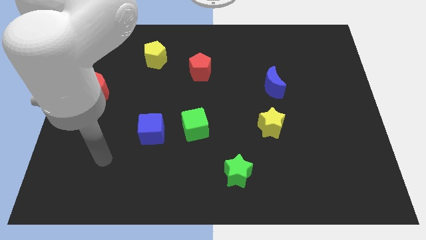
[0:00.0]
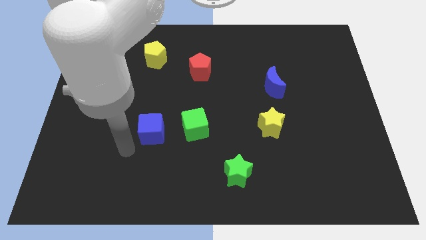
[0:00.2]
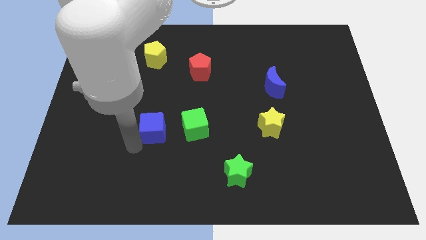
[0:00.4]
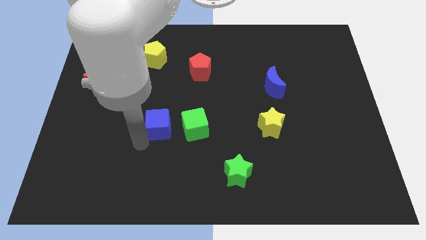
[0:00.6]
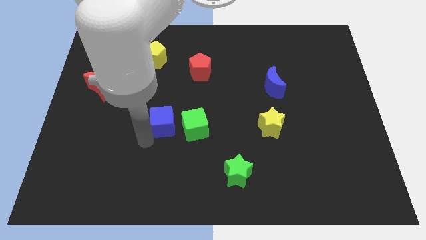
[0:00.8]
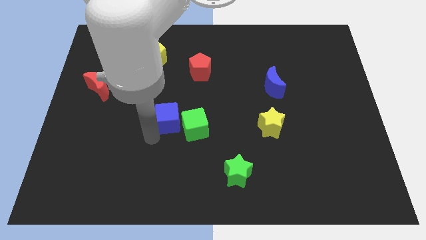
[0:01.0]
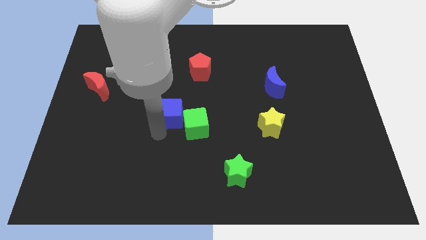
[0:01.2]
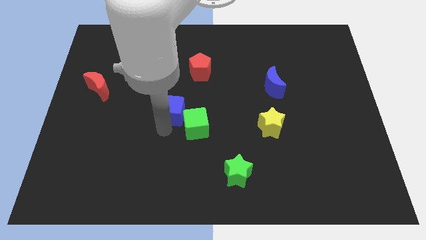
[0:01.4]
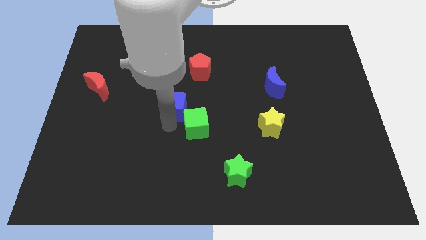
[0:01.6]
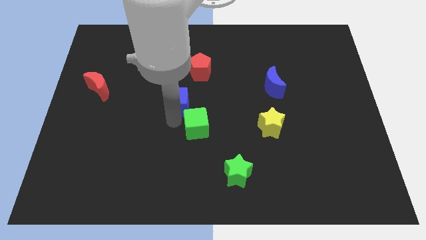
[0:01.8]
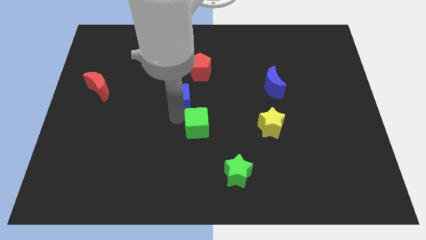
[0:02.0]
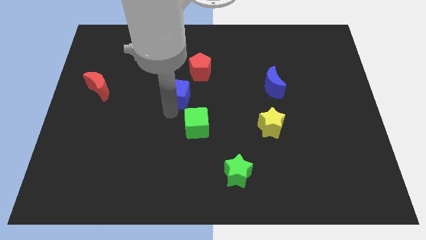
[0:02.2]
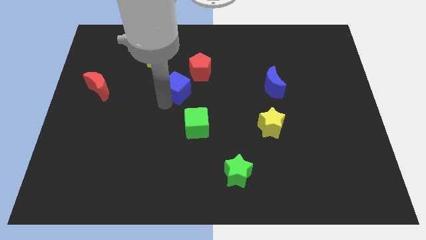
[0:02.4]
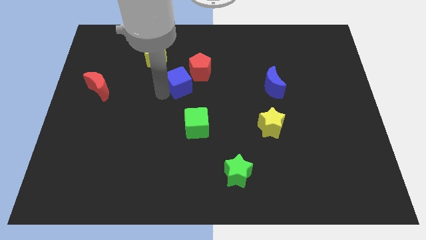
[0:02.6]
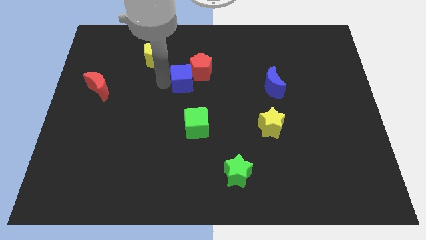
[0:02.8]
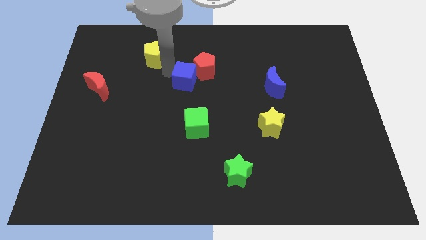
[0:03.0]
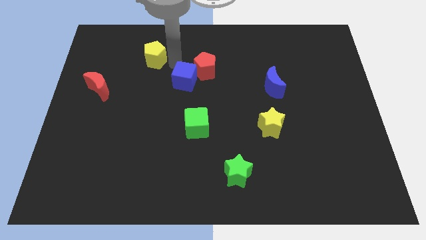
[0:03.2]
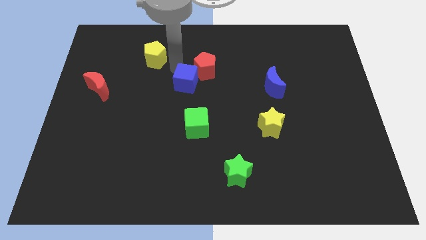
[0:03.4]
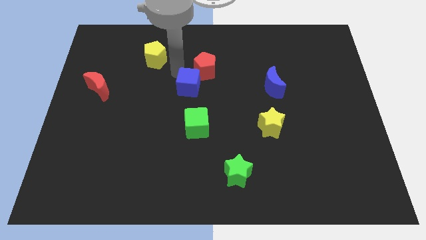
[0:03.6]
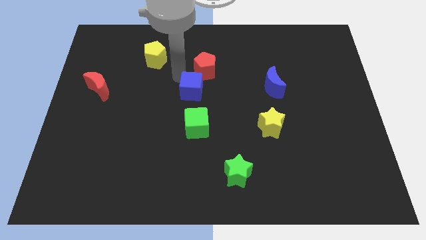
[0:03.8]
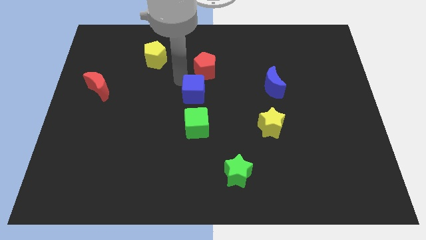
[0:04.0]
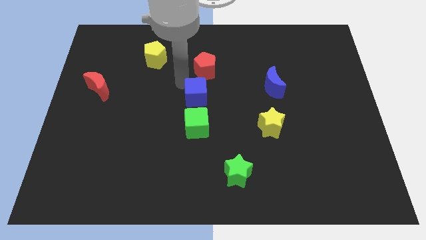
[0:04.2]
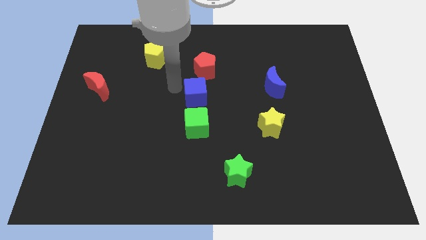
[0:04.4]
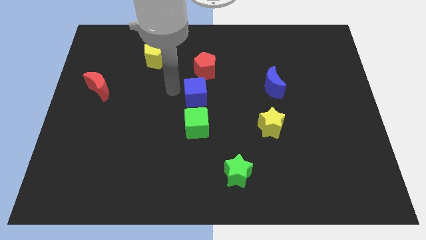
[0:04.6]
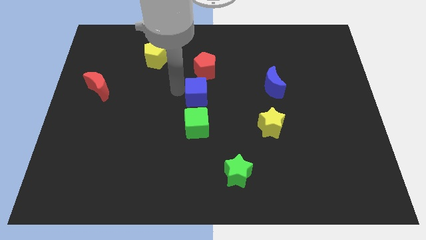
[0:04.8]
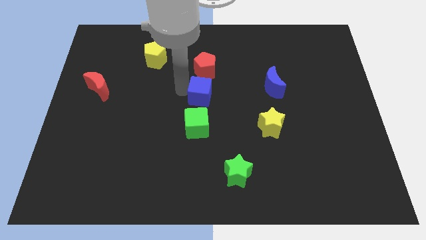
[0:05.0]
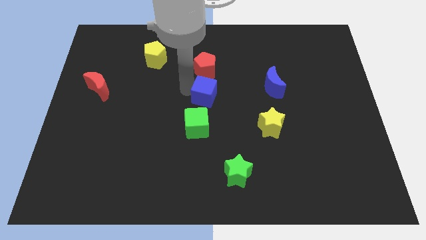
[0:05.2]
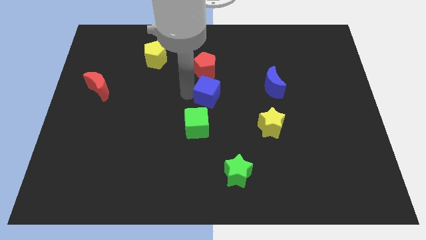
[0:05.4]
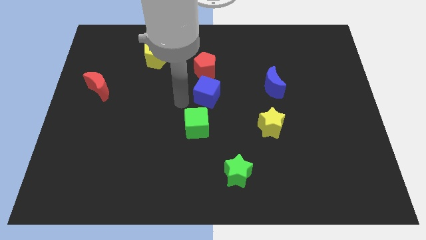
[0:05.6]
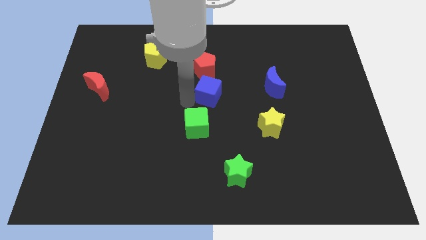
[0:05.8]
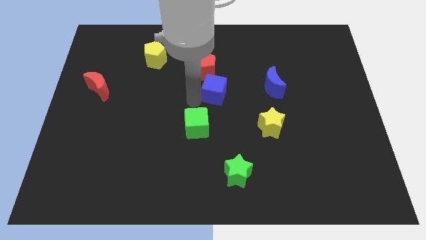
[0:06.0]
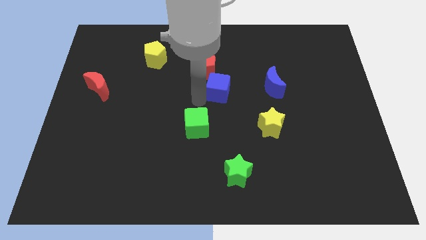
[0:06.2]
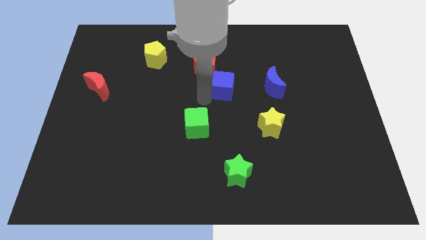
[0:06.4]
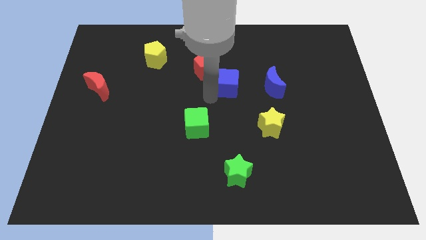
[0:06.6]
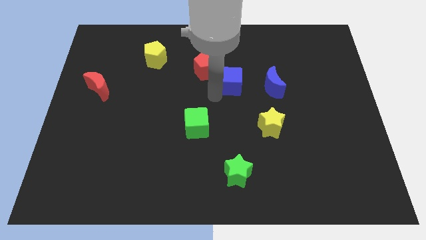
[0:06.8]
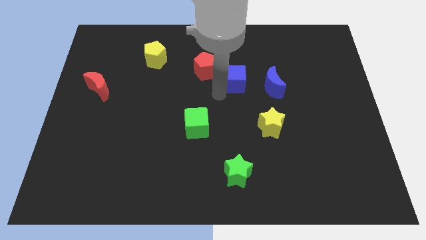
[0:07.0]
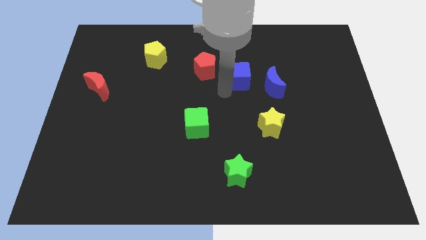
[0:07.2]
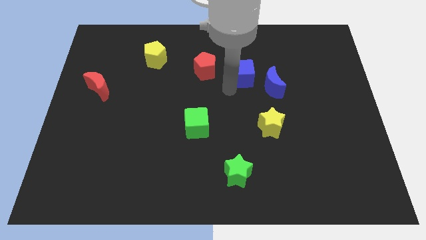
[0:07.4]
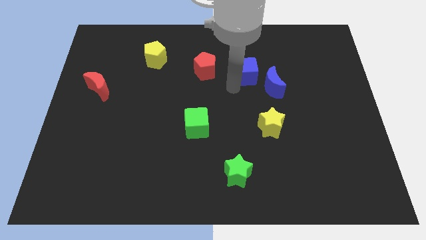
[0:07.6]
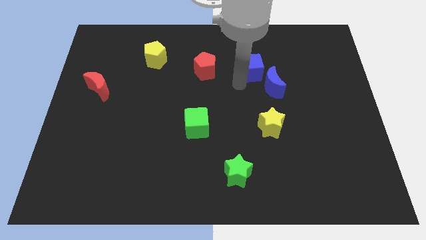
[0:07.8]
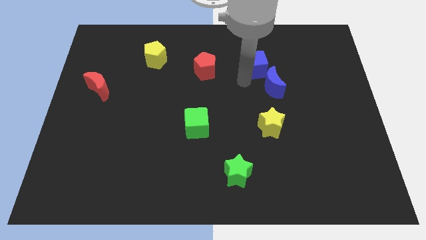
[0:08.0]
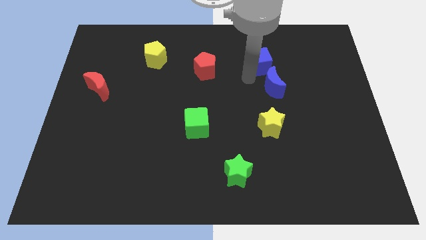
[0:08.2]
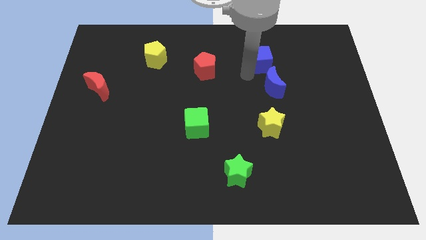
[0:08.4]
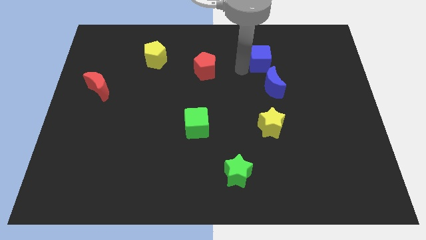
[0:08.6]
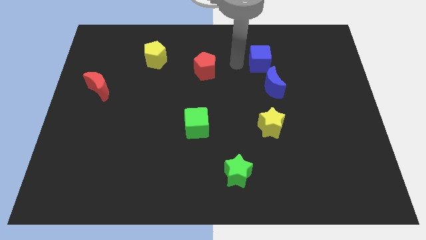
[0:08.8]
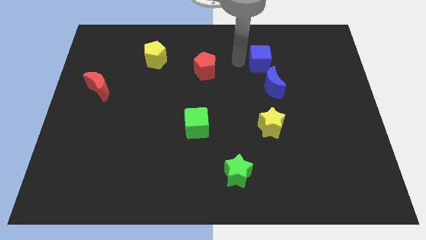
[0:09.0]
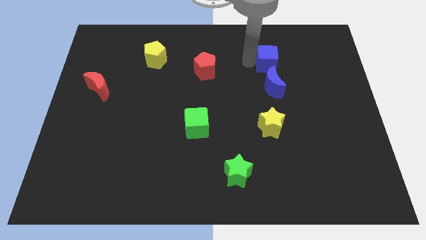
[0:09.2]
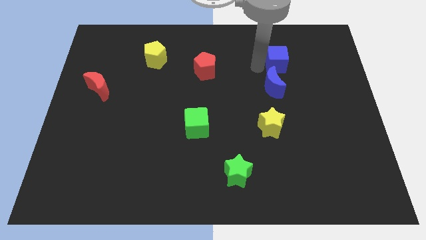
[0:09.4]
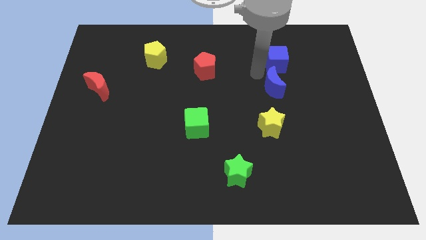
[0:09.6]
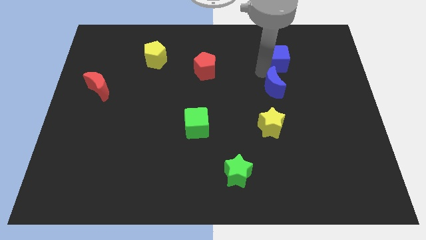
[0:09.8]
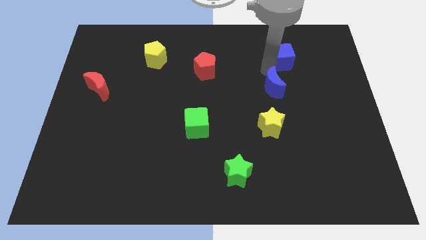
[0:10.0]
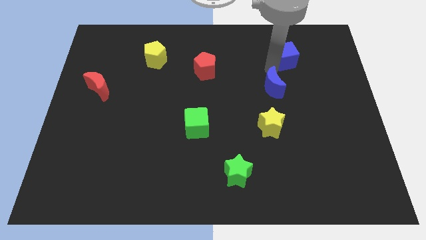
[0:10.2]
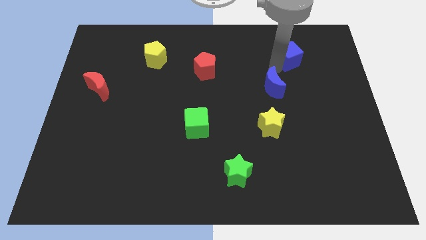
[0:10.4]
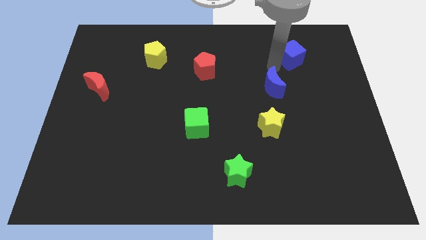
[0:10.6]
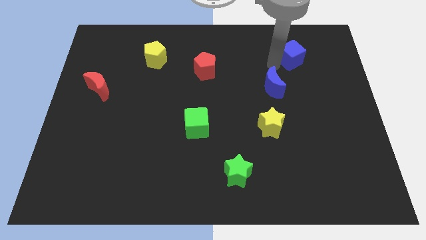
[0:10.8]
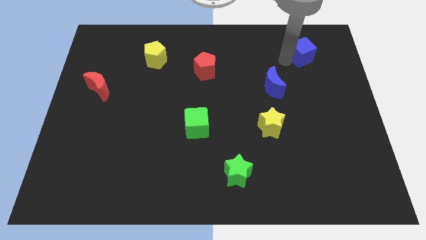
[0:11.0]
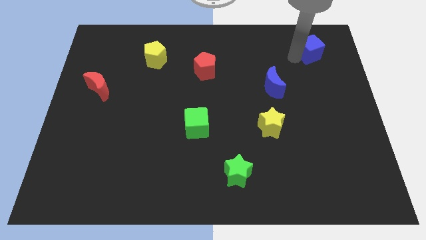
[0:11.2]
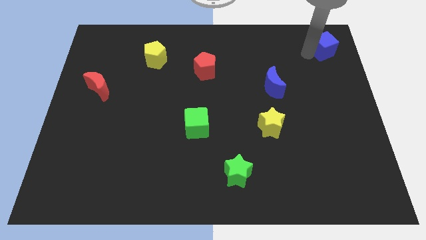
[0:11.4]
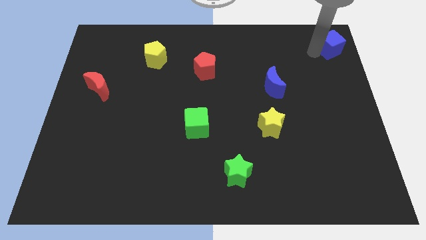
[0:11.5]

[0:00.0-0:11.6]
slide the blue cube to the top right corner
